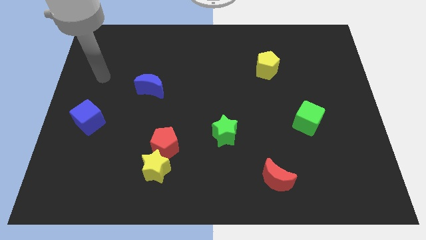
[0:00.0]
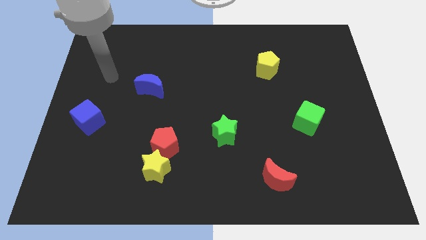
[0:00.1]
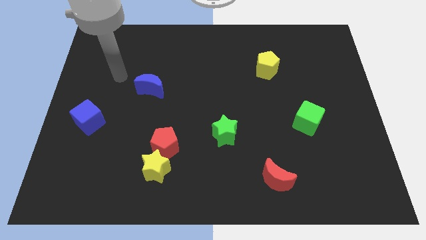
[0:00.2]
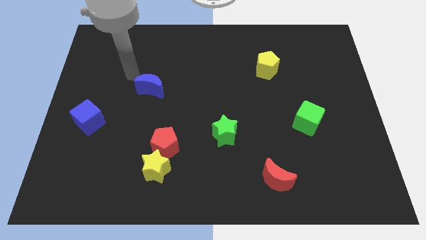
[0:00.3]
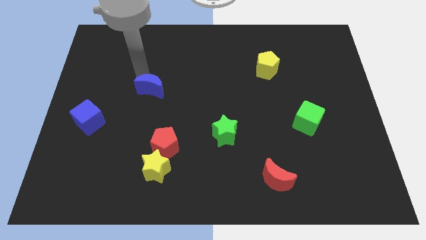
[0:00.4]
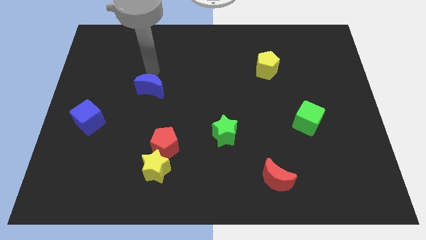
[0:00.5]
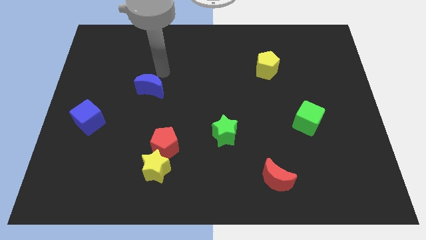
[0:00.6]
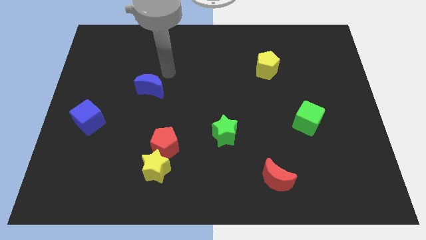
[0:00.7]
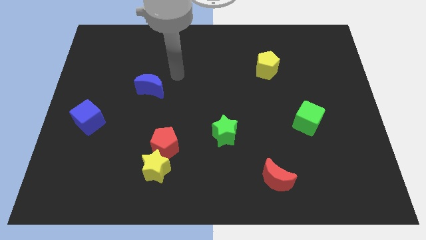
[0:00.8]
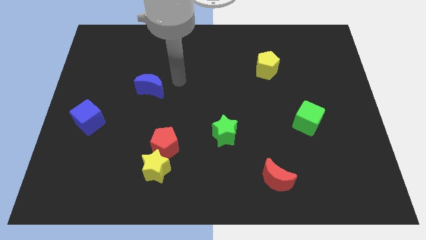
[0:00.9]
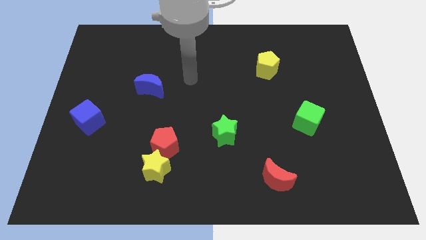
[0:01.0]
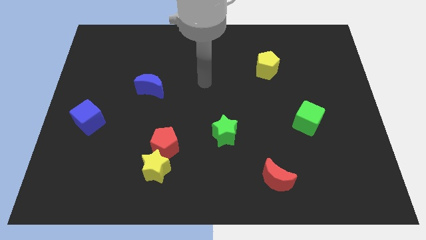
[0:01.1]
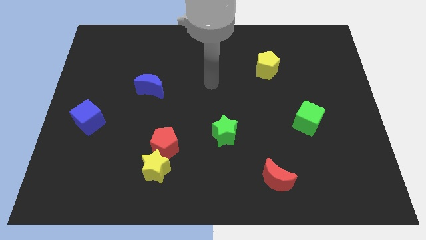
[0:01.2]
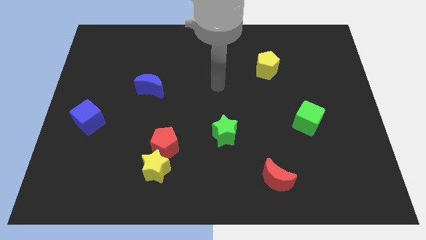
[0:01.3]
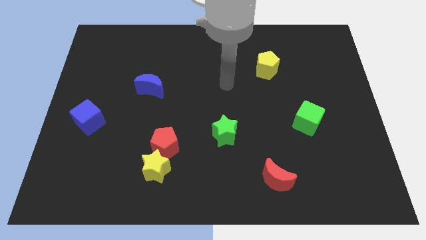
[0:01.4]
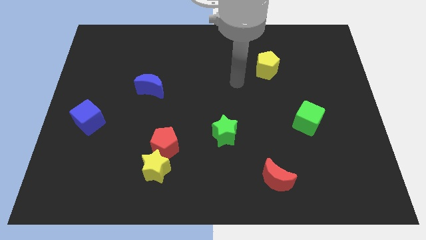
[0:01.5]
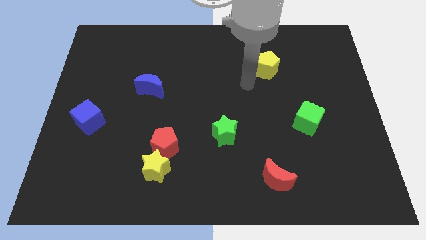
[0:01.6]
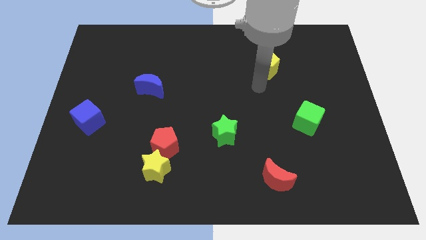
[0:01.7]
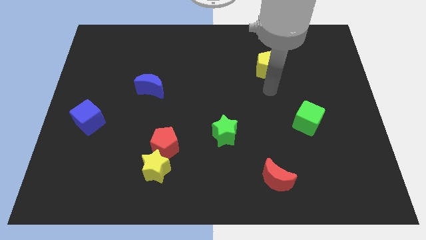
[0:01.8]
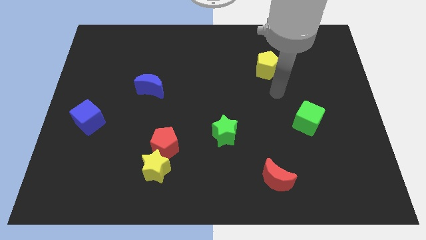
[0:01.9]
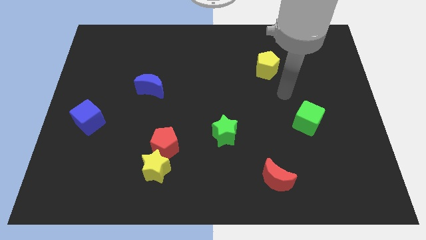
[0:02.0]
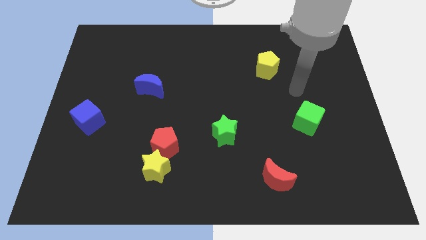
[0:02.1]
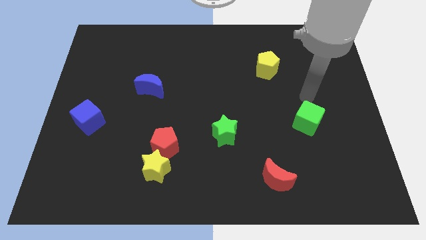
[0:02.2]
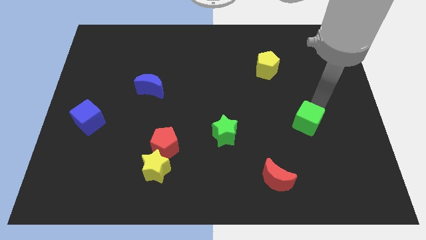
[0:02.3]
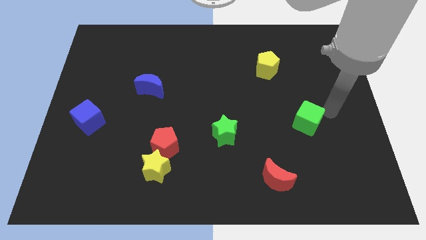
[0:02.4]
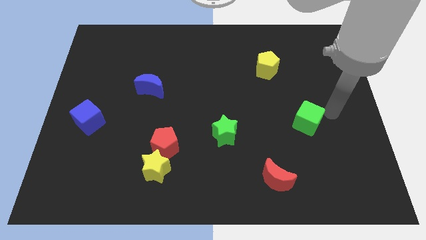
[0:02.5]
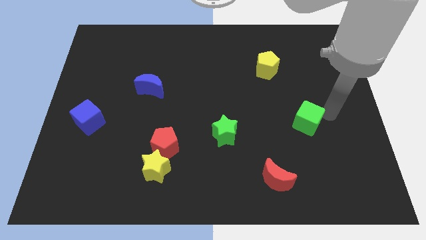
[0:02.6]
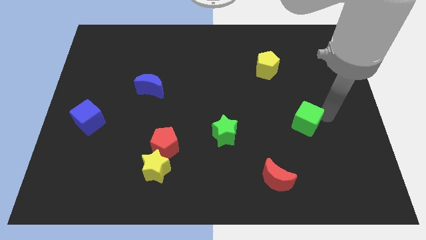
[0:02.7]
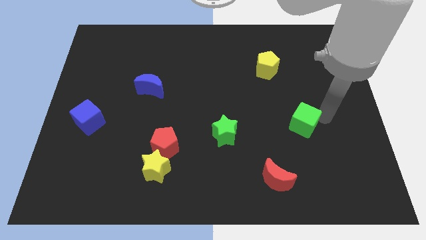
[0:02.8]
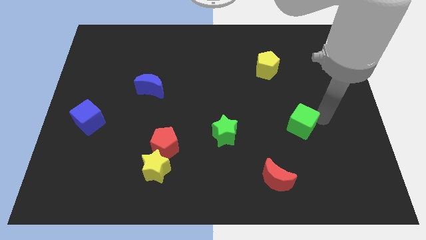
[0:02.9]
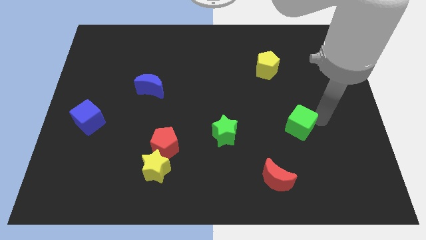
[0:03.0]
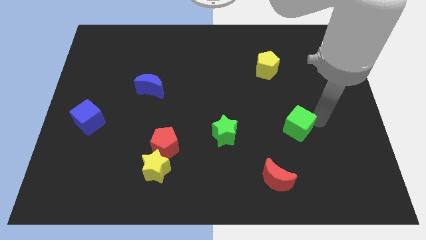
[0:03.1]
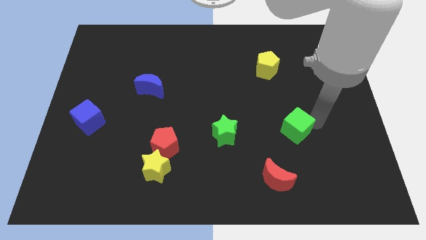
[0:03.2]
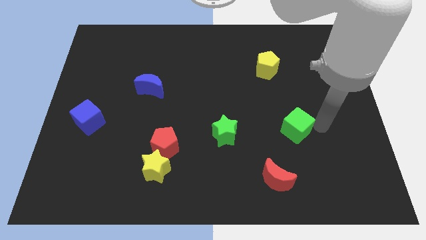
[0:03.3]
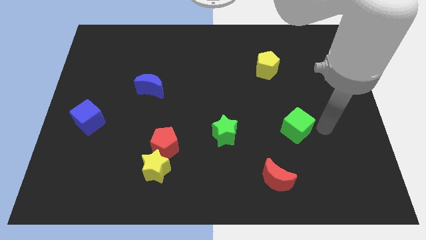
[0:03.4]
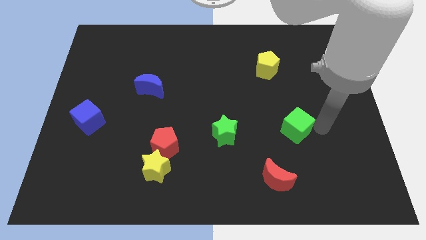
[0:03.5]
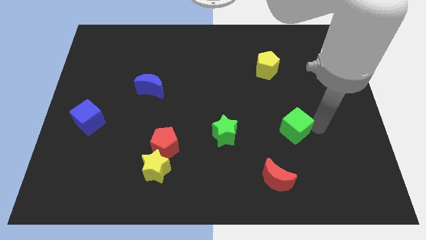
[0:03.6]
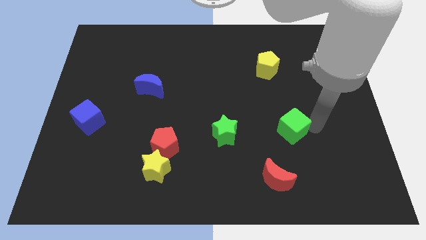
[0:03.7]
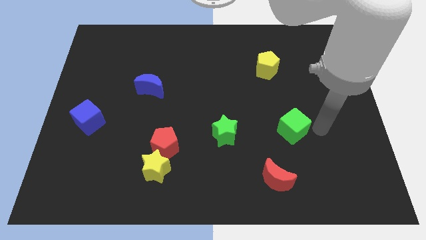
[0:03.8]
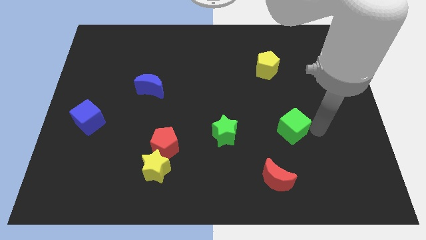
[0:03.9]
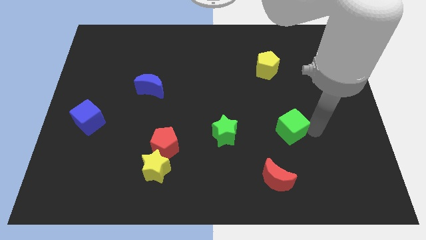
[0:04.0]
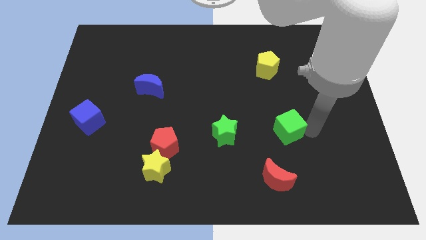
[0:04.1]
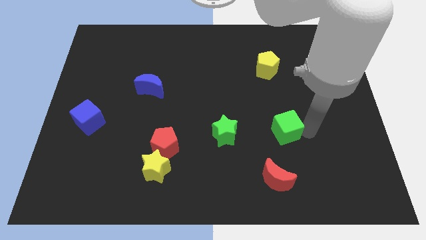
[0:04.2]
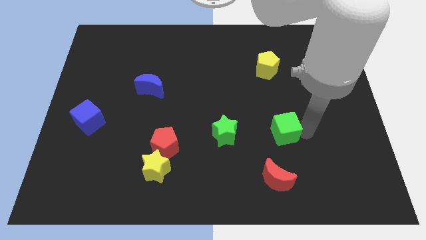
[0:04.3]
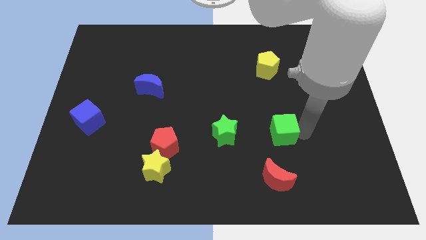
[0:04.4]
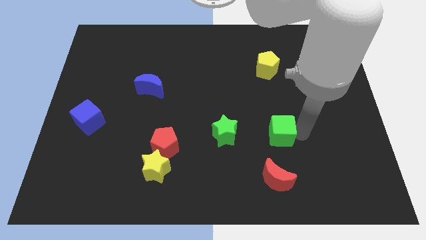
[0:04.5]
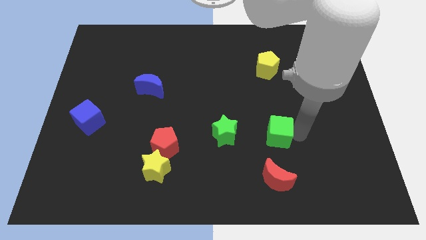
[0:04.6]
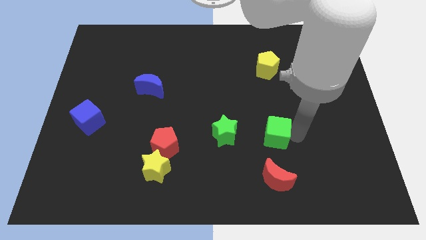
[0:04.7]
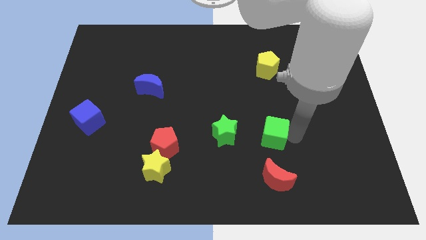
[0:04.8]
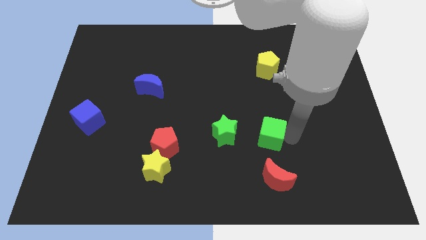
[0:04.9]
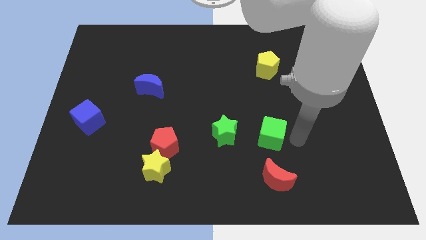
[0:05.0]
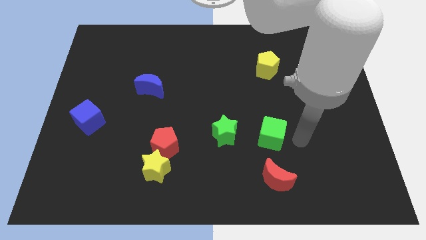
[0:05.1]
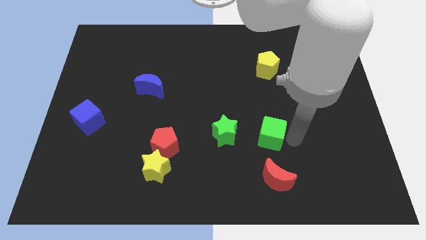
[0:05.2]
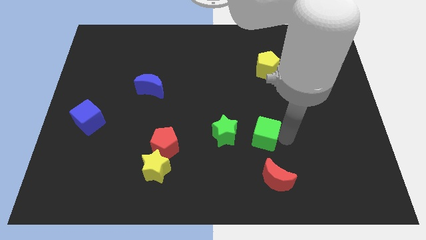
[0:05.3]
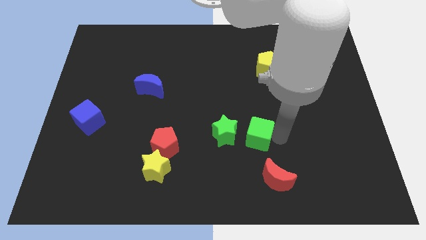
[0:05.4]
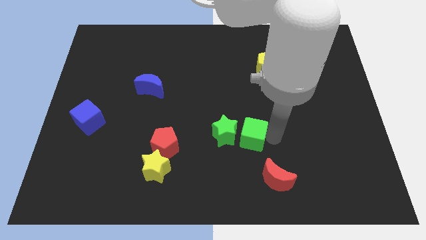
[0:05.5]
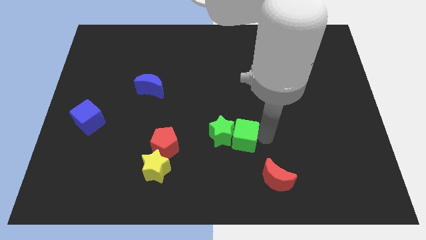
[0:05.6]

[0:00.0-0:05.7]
push the green cube towards the green star

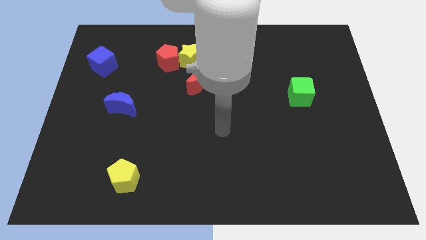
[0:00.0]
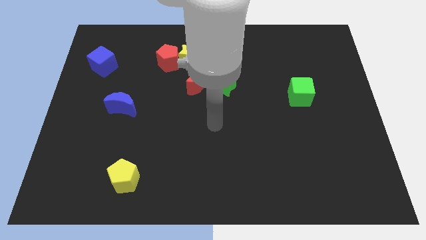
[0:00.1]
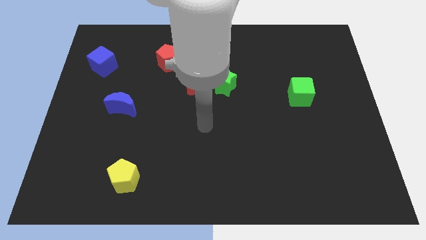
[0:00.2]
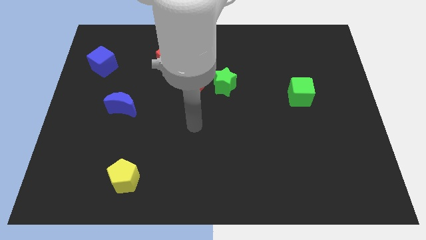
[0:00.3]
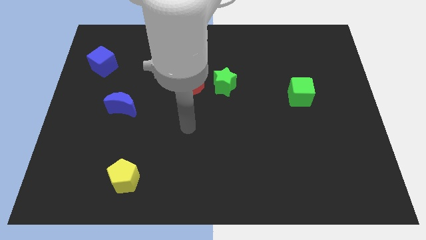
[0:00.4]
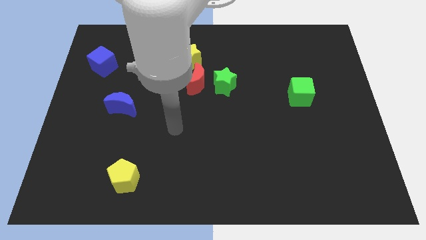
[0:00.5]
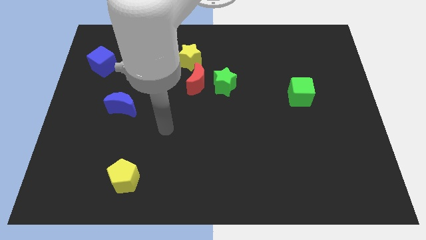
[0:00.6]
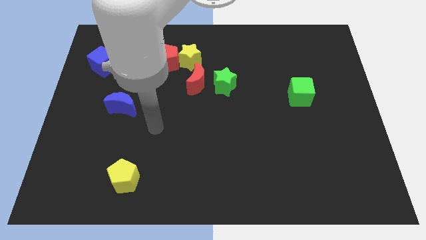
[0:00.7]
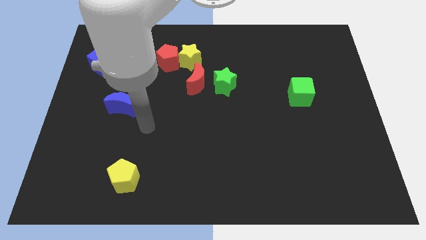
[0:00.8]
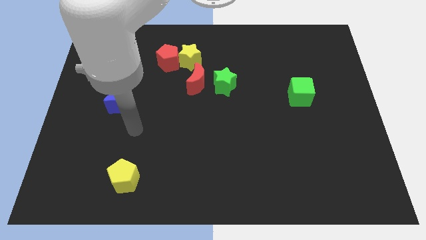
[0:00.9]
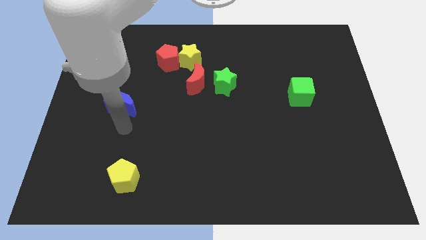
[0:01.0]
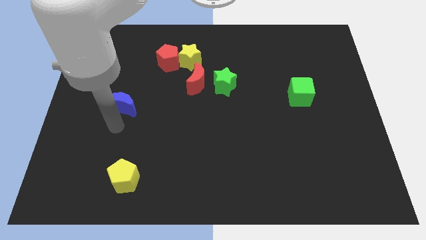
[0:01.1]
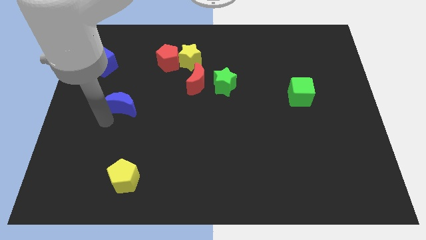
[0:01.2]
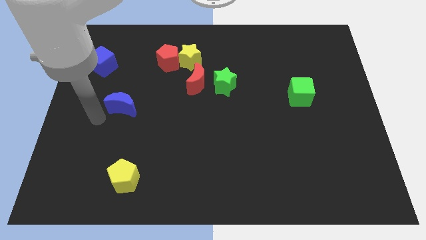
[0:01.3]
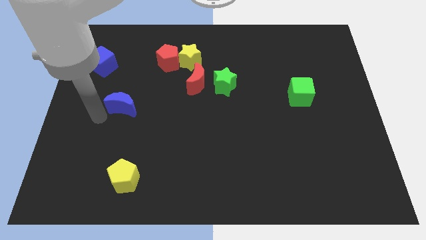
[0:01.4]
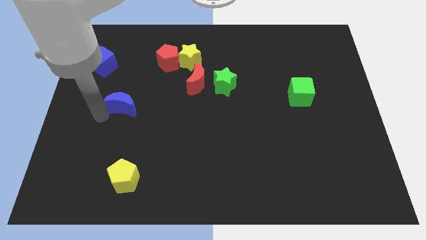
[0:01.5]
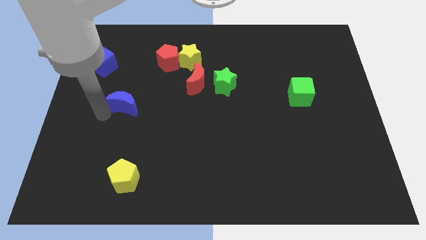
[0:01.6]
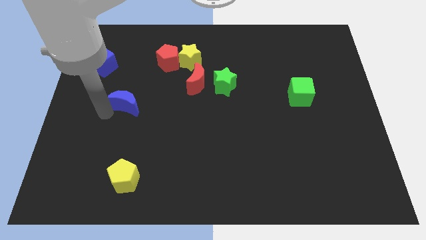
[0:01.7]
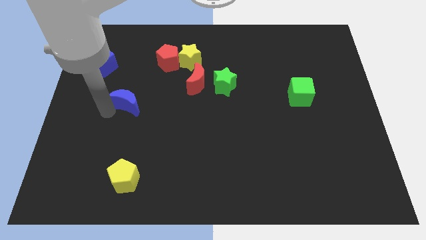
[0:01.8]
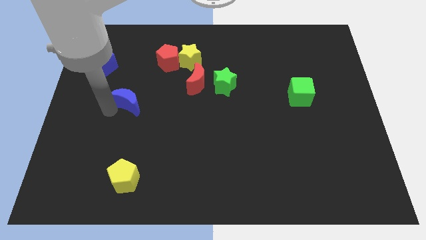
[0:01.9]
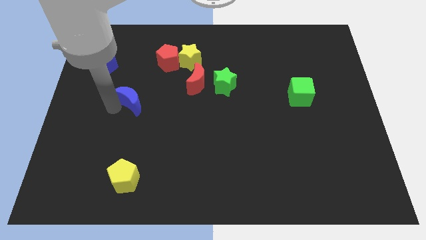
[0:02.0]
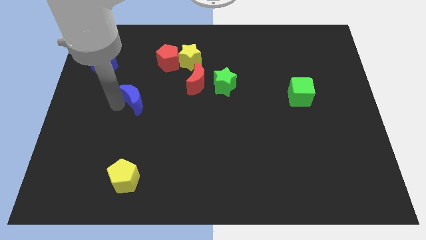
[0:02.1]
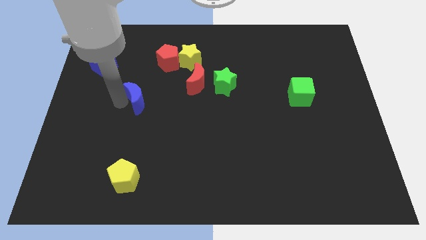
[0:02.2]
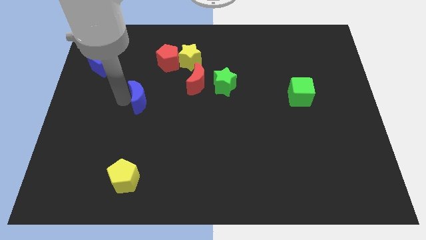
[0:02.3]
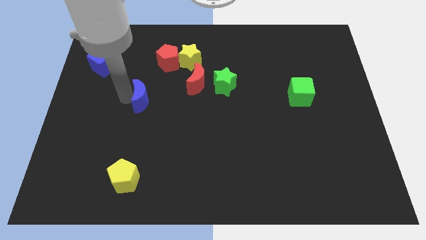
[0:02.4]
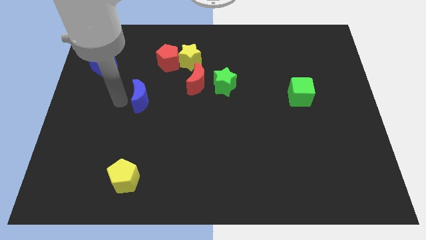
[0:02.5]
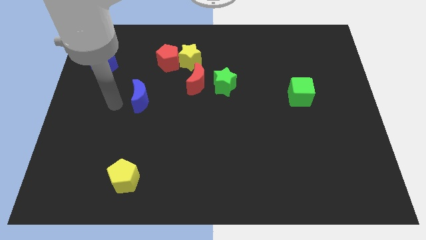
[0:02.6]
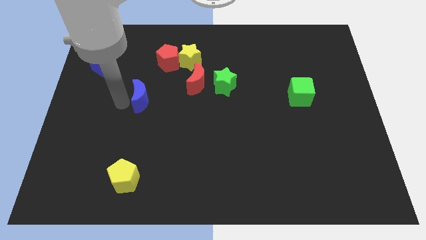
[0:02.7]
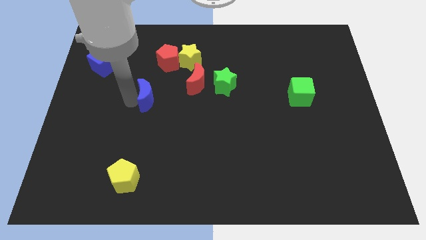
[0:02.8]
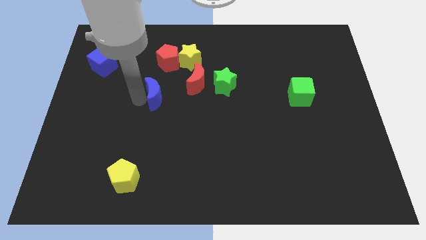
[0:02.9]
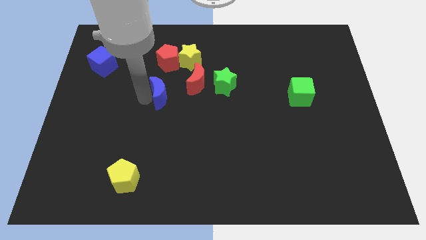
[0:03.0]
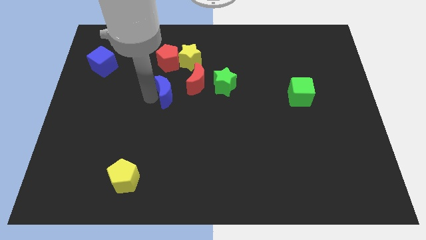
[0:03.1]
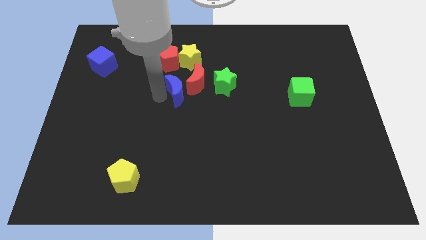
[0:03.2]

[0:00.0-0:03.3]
slide the blue moon to the red moon
